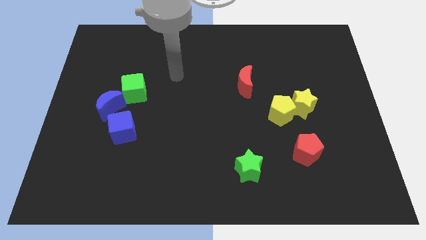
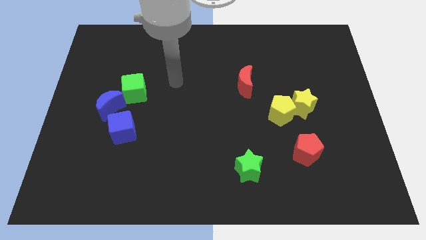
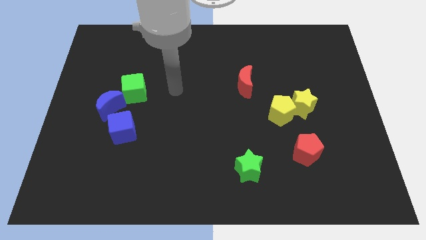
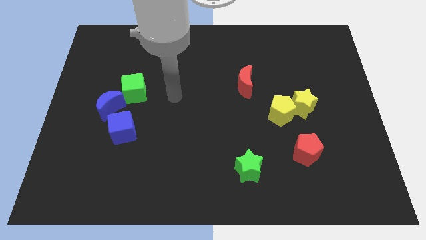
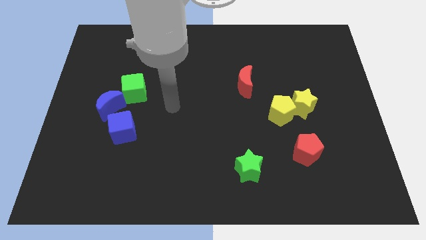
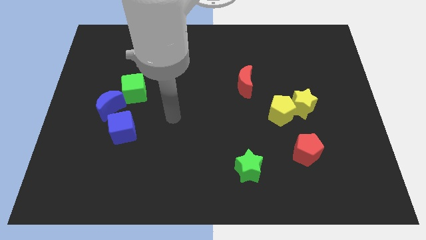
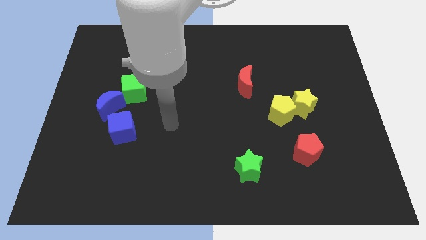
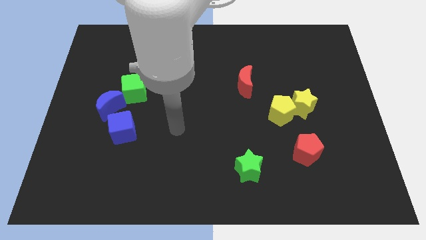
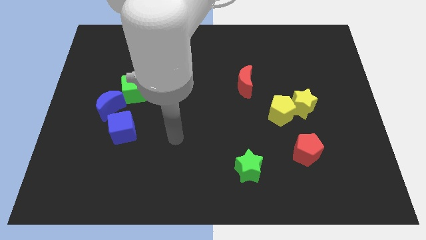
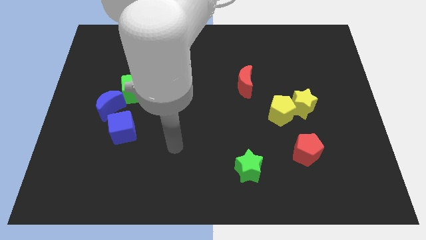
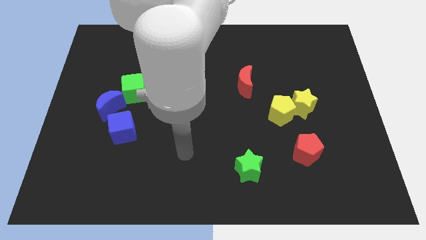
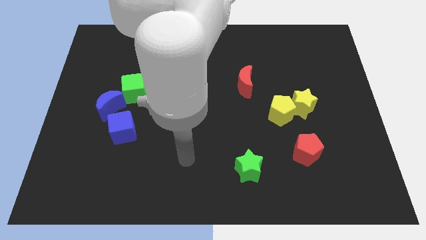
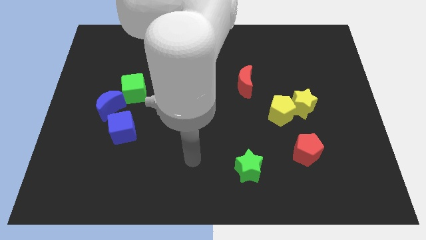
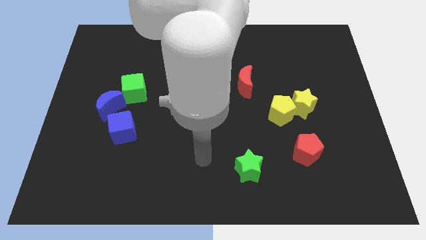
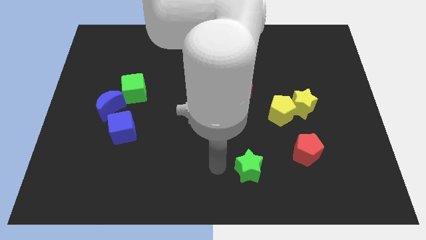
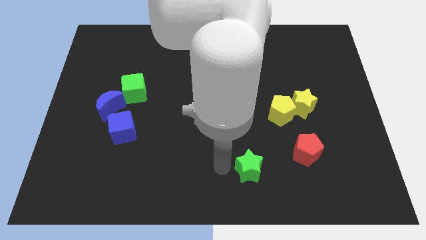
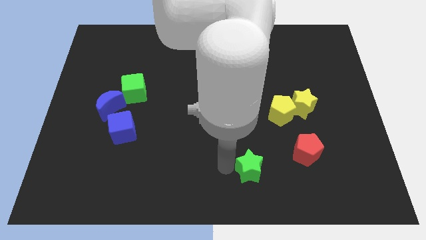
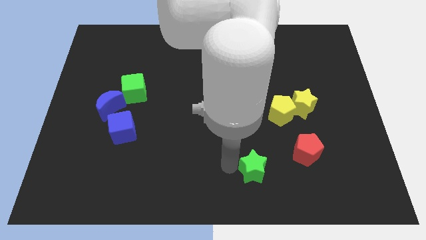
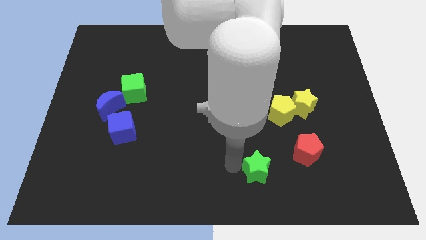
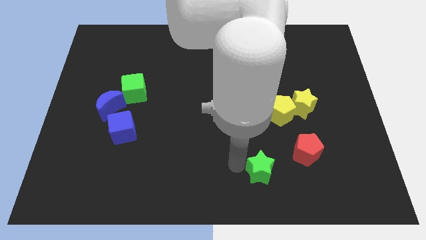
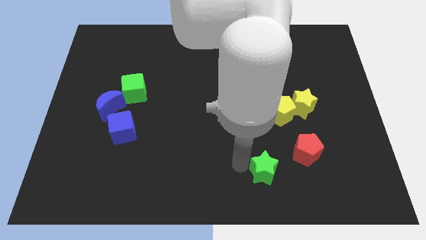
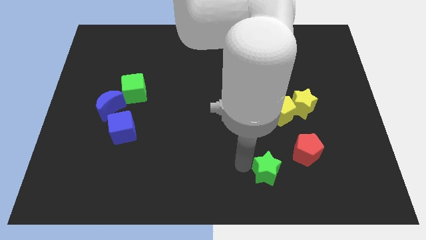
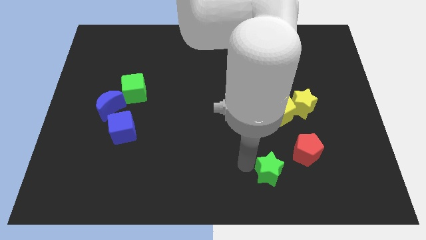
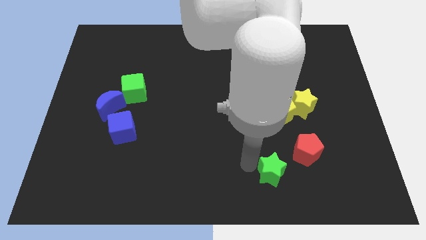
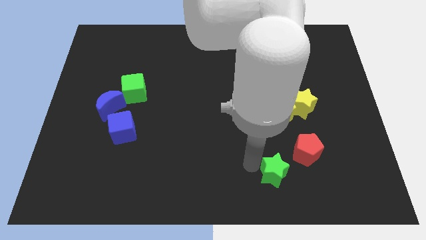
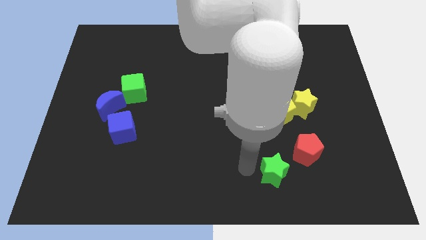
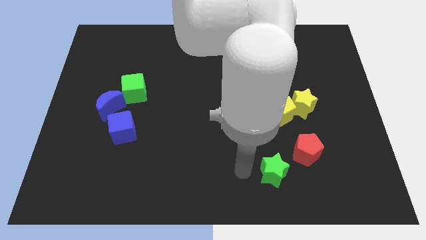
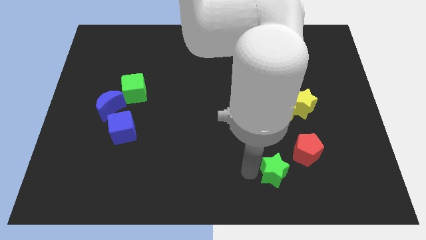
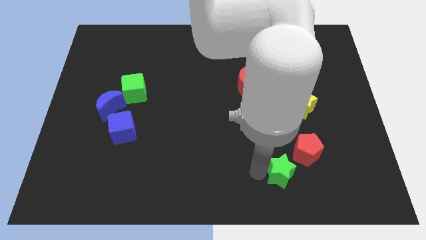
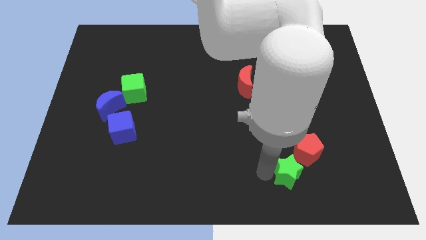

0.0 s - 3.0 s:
slide the green star somewhat right

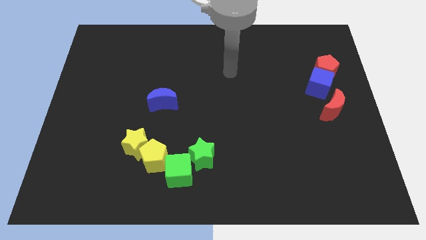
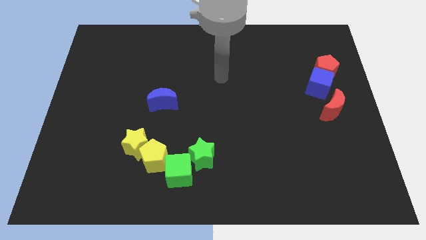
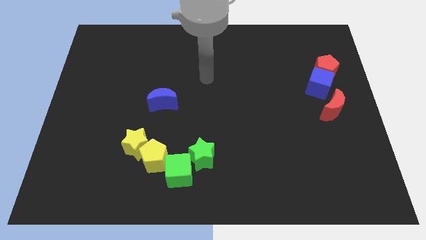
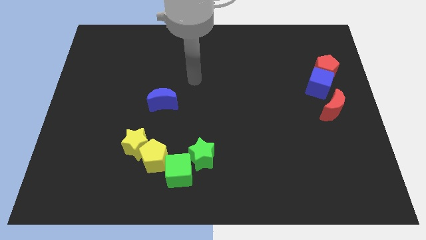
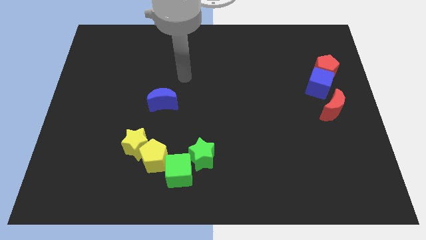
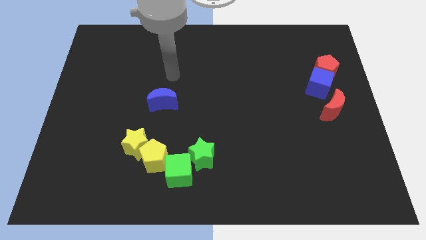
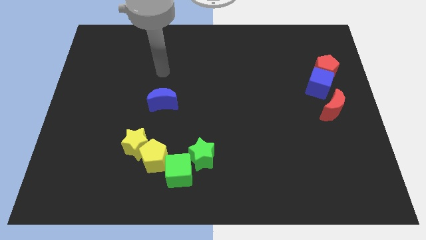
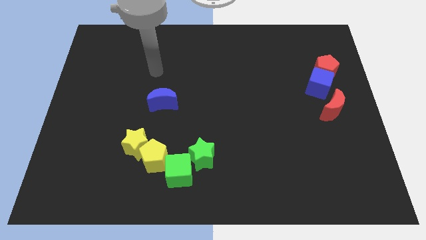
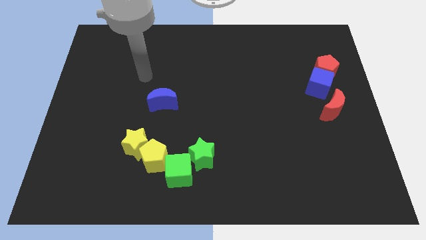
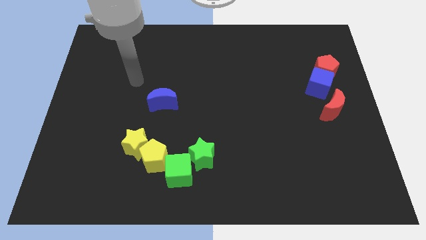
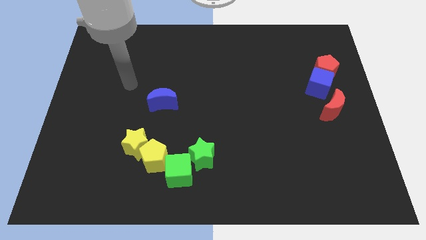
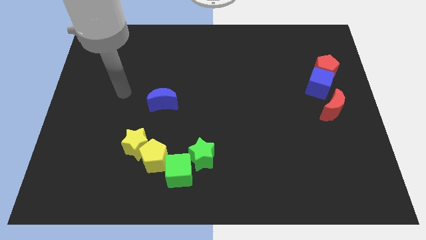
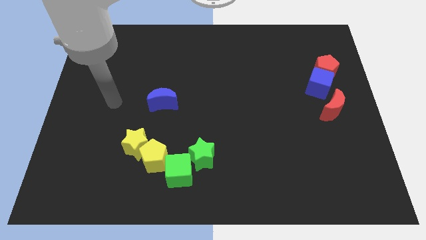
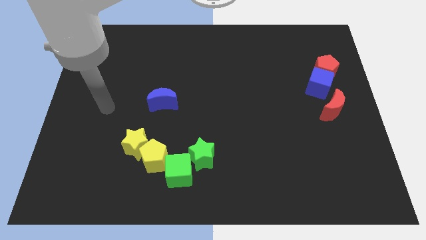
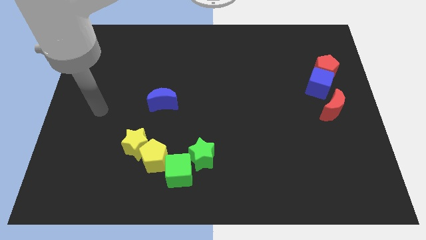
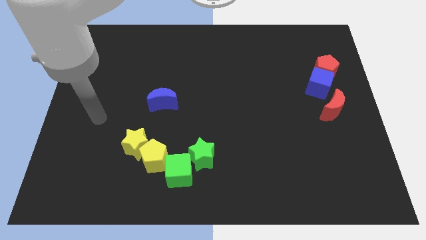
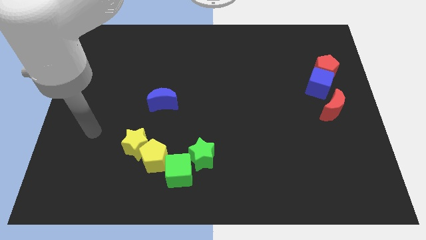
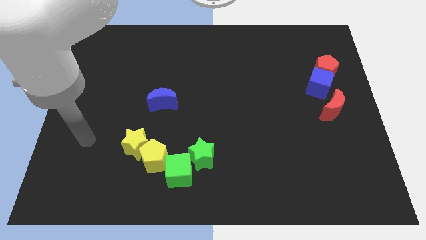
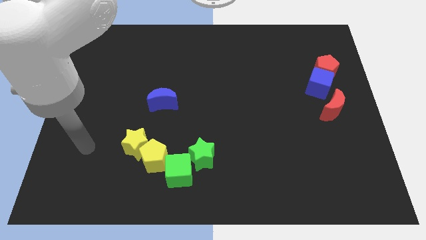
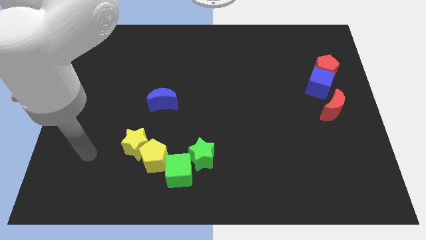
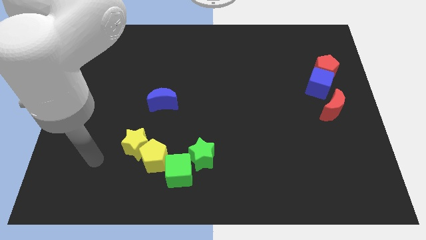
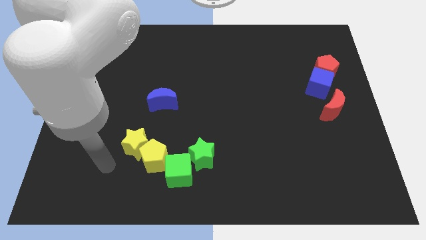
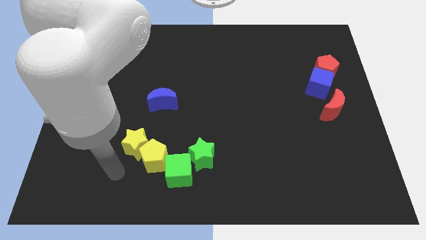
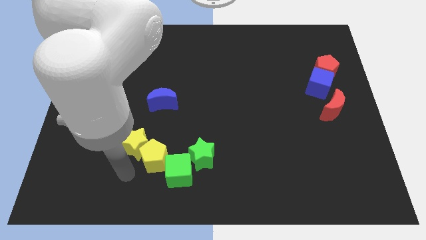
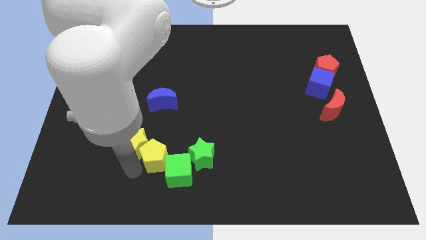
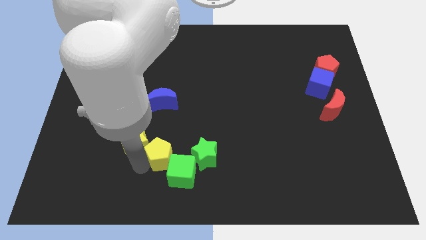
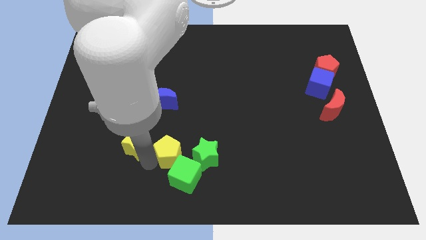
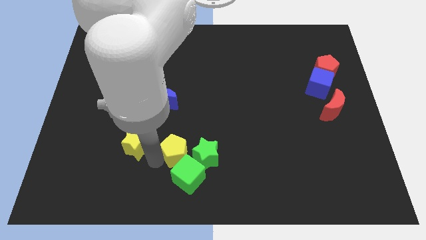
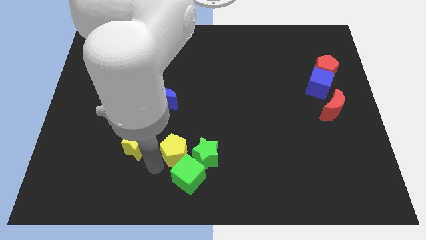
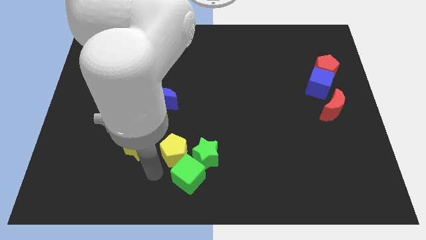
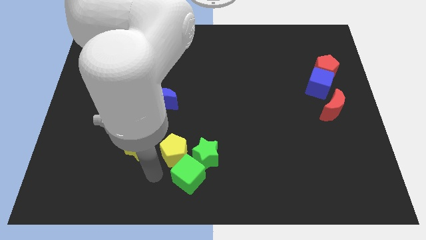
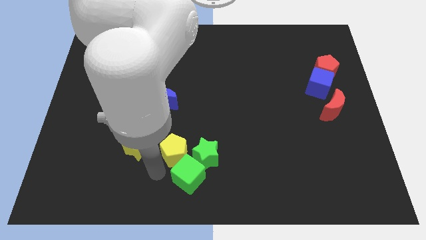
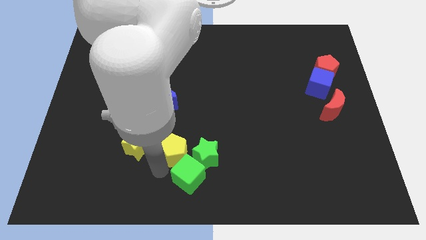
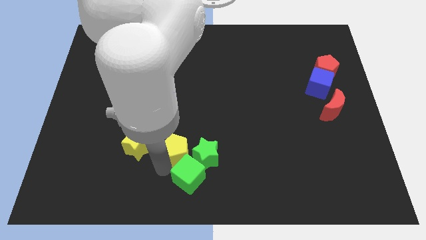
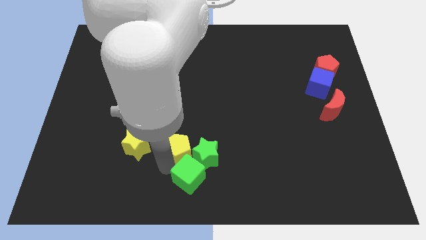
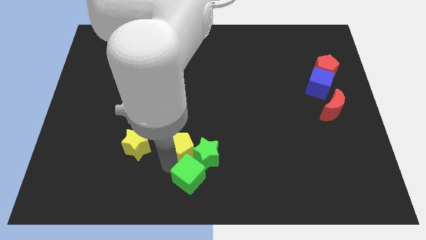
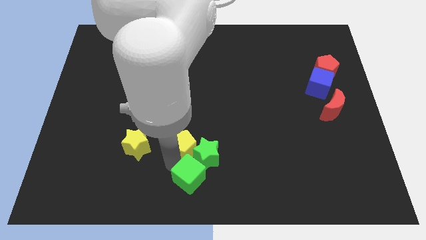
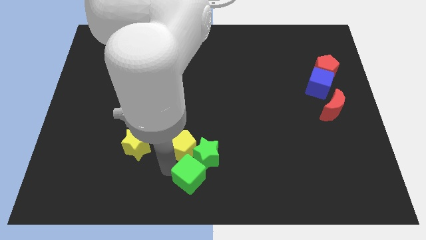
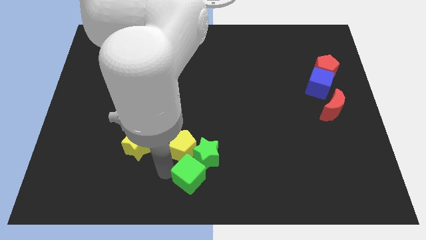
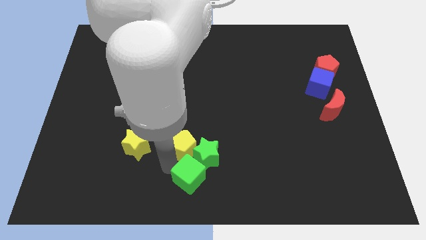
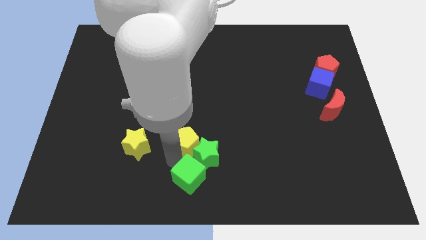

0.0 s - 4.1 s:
slide the yellow pentagon somewhat up and then right

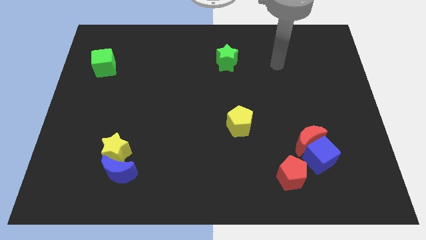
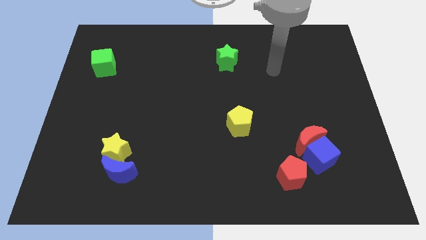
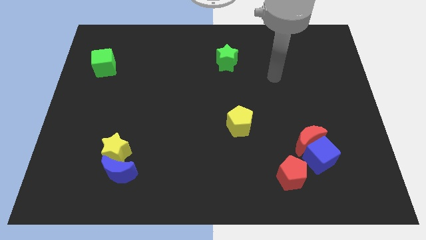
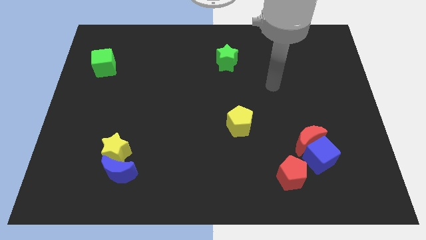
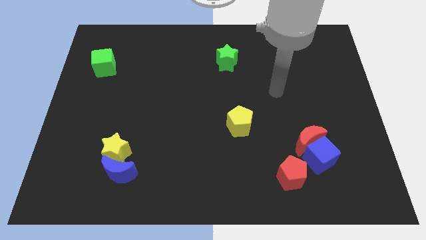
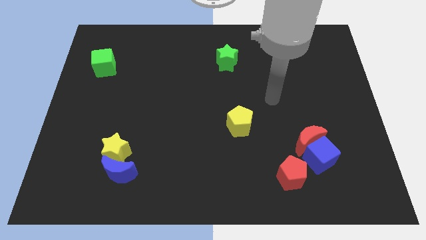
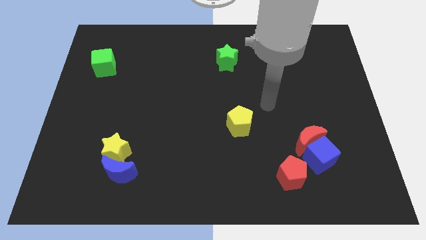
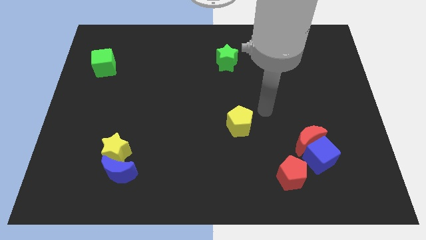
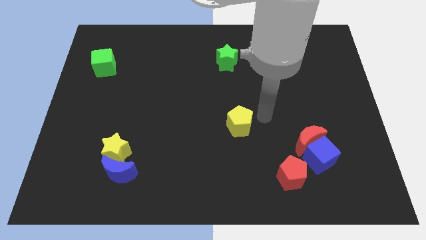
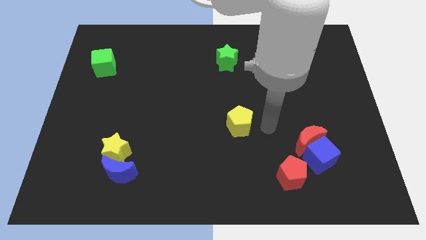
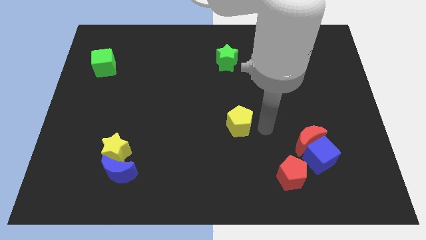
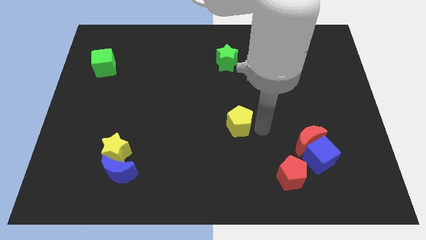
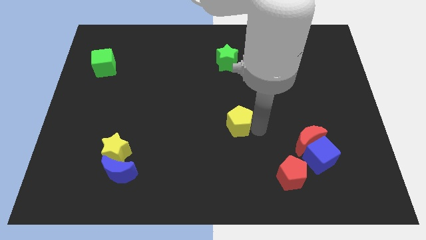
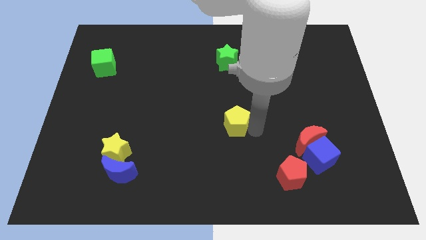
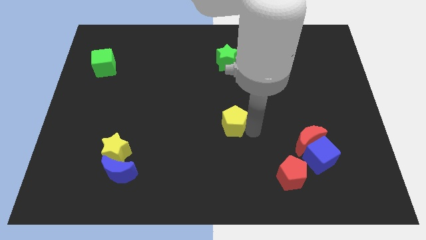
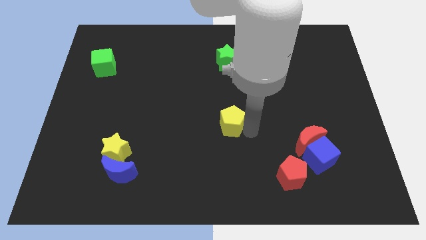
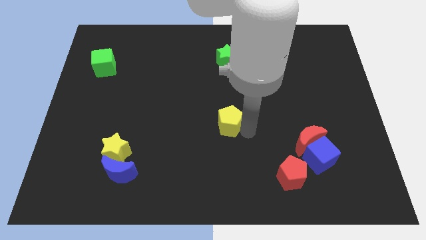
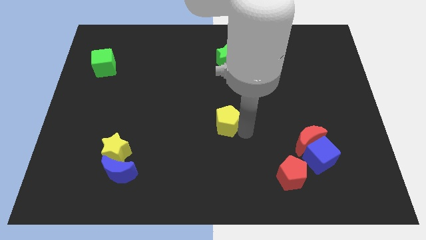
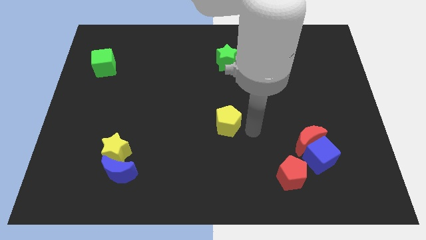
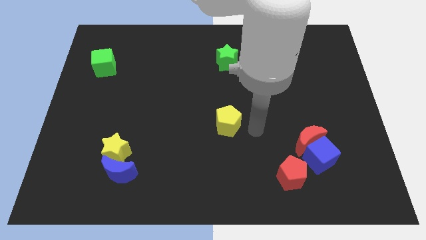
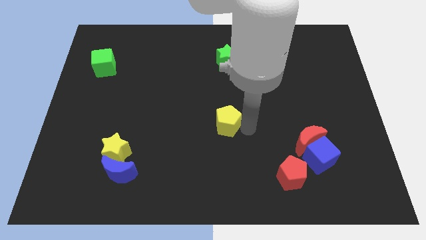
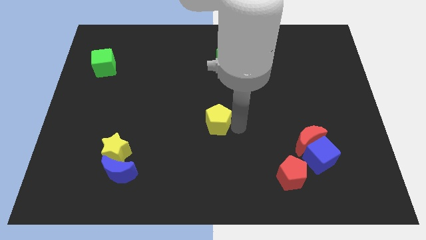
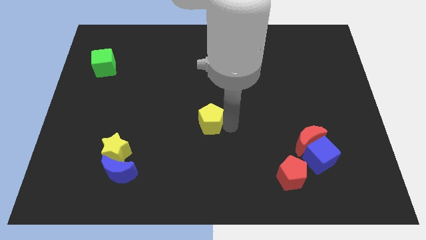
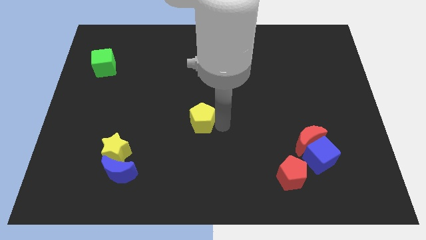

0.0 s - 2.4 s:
slightly move the yellow pentagon to the left
